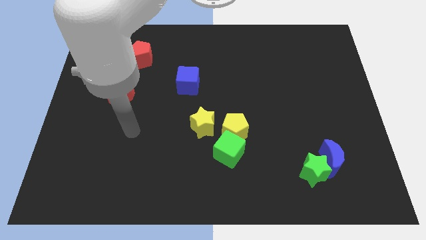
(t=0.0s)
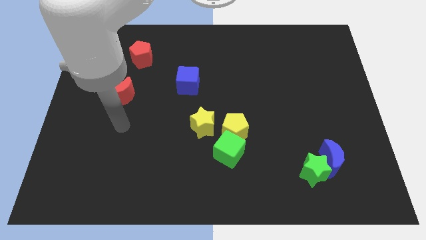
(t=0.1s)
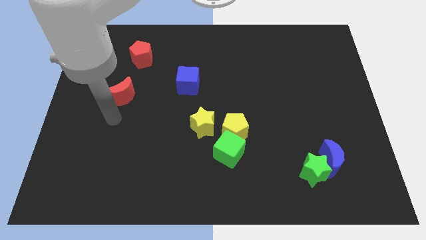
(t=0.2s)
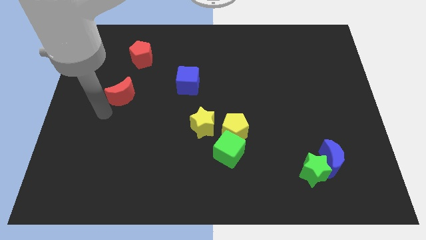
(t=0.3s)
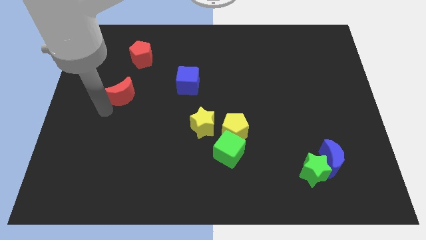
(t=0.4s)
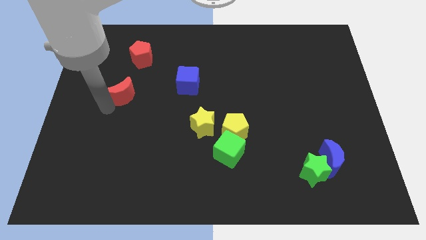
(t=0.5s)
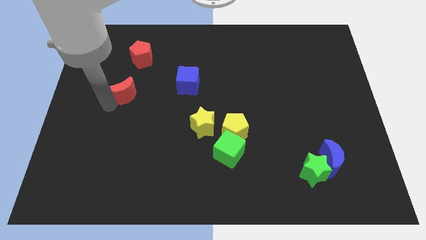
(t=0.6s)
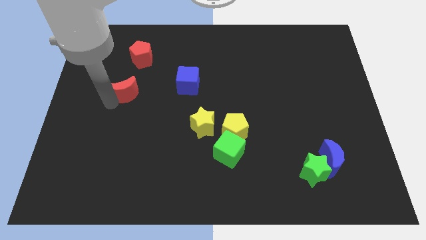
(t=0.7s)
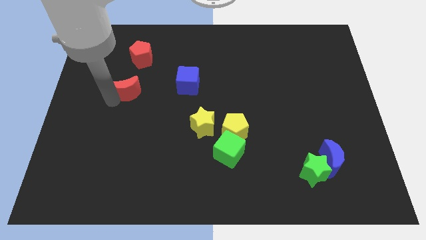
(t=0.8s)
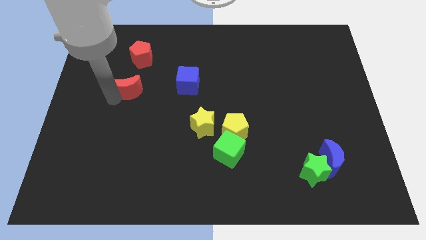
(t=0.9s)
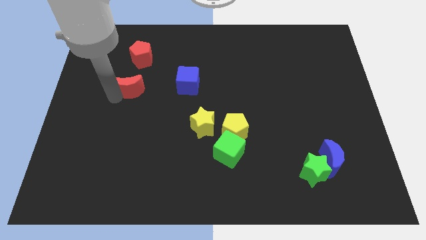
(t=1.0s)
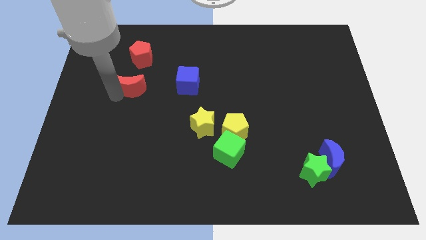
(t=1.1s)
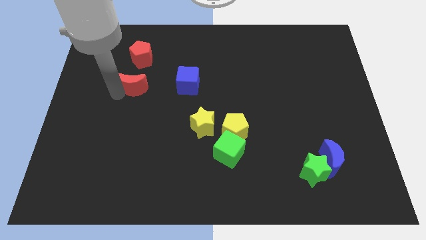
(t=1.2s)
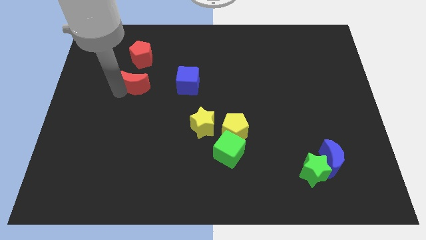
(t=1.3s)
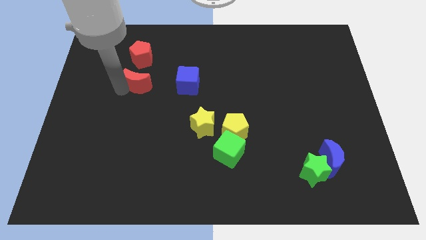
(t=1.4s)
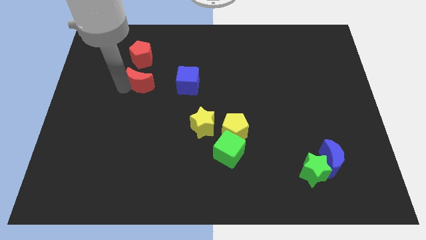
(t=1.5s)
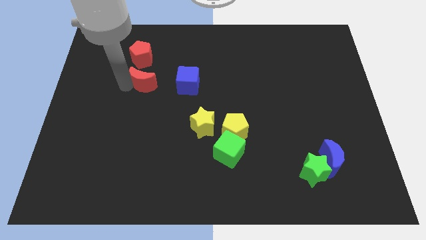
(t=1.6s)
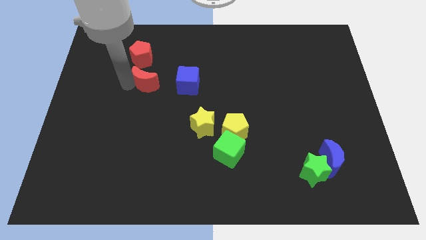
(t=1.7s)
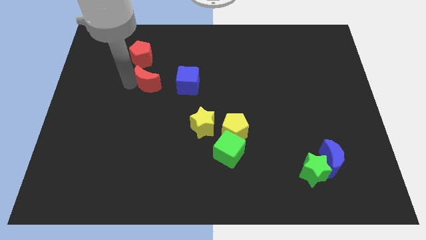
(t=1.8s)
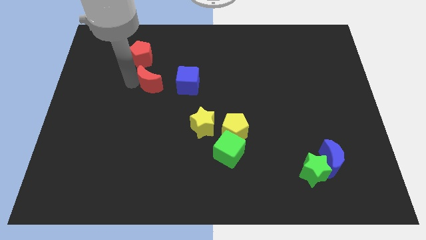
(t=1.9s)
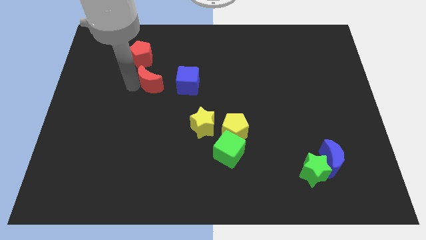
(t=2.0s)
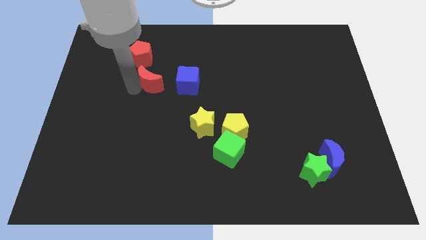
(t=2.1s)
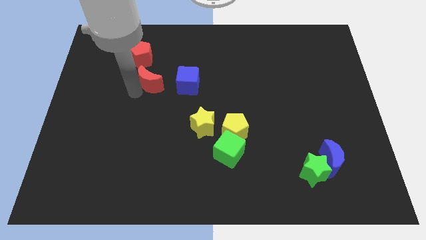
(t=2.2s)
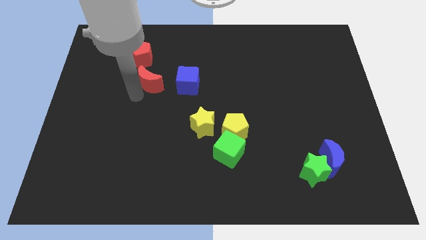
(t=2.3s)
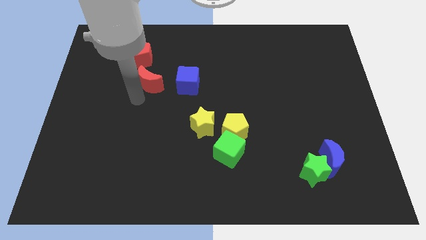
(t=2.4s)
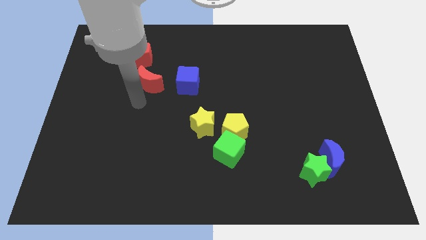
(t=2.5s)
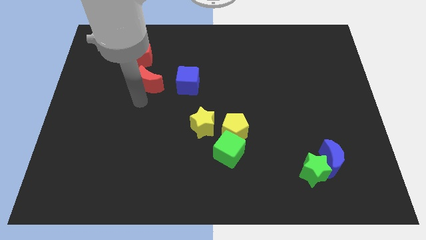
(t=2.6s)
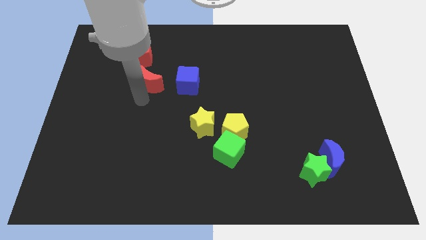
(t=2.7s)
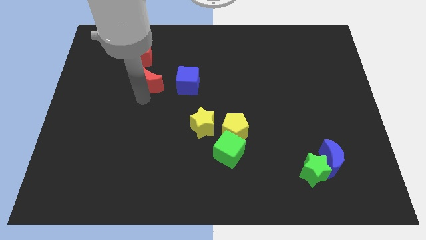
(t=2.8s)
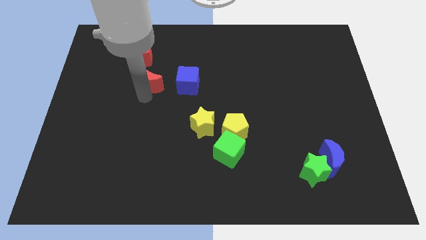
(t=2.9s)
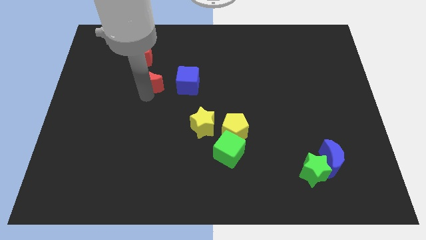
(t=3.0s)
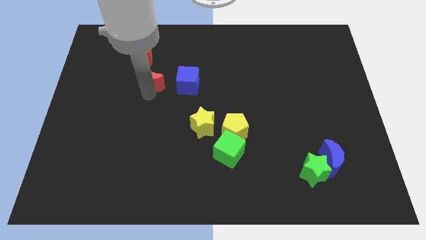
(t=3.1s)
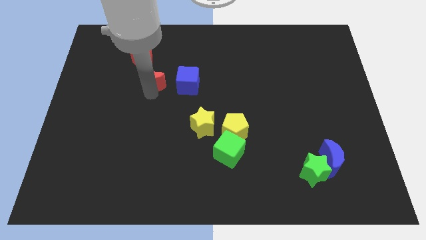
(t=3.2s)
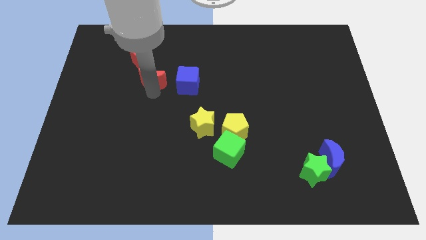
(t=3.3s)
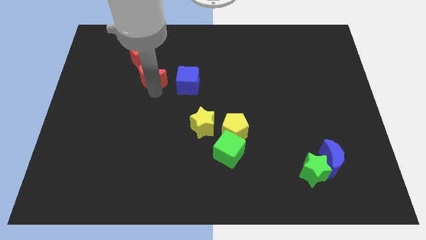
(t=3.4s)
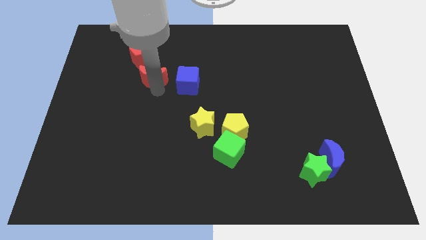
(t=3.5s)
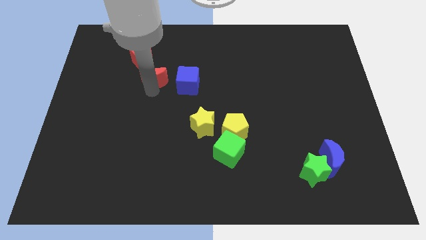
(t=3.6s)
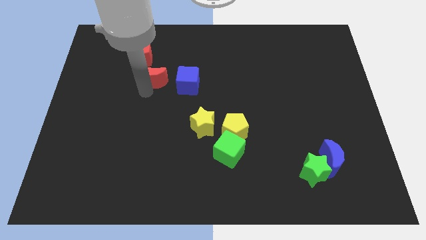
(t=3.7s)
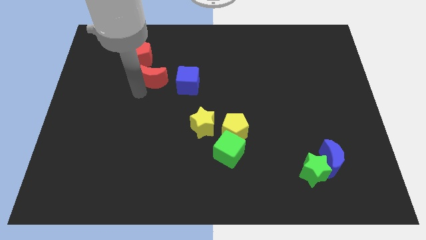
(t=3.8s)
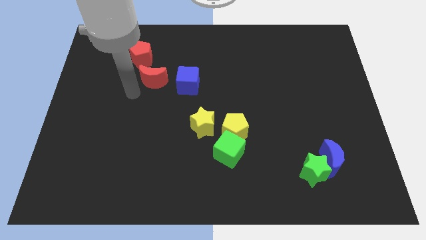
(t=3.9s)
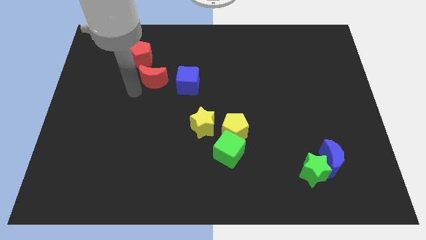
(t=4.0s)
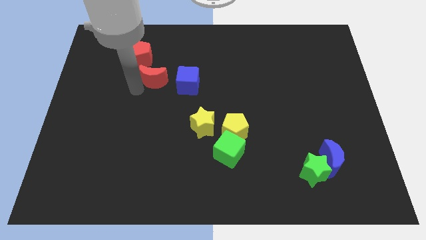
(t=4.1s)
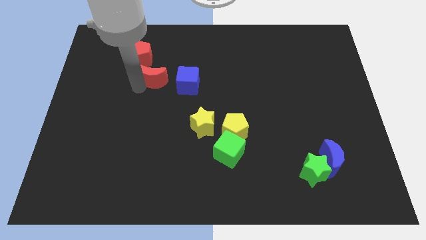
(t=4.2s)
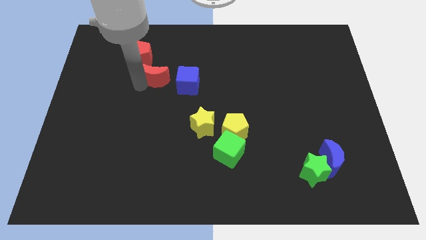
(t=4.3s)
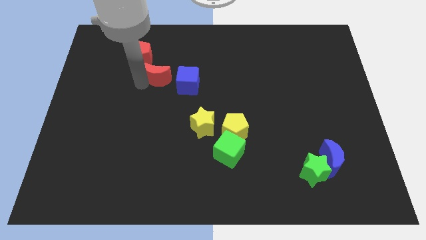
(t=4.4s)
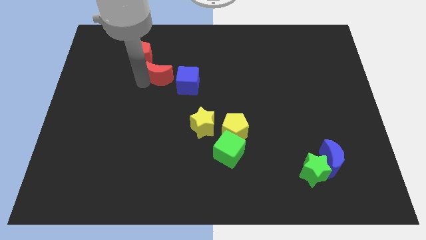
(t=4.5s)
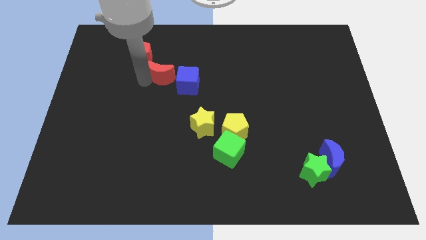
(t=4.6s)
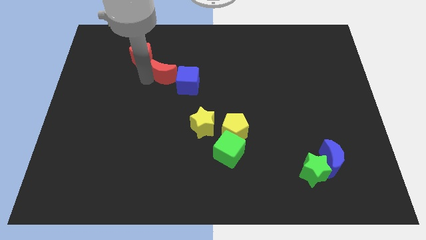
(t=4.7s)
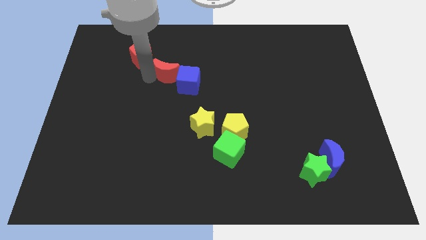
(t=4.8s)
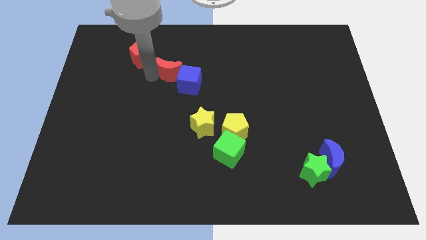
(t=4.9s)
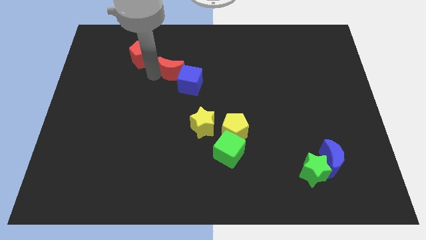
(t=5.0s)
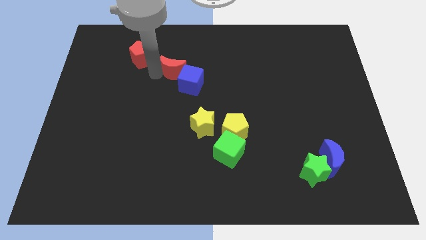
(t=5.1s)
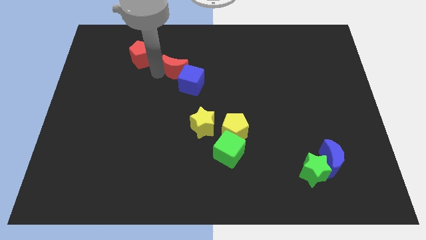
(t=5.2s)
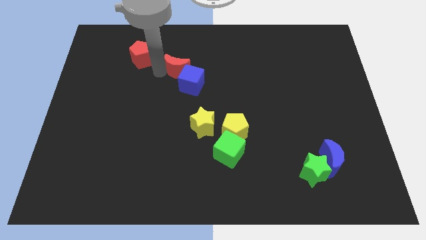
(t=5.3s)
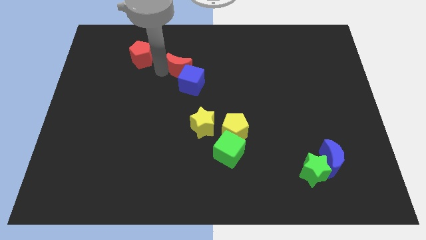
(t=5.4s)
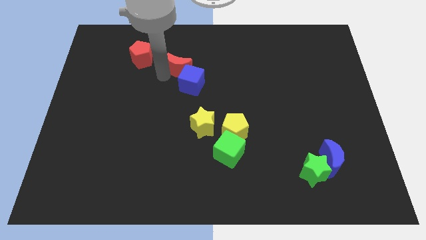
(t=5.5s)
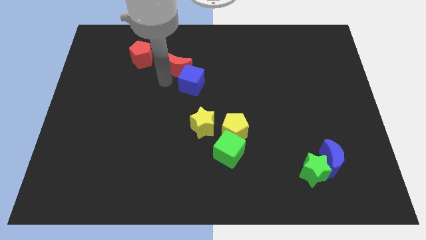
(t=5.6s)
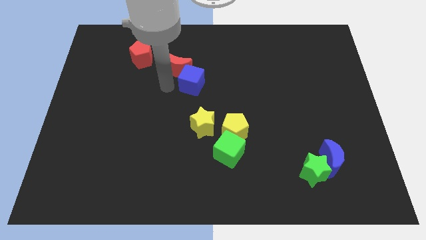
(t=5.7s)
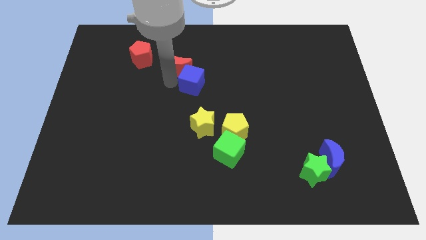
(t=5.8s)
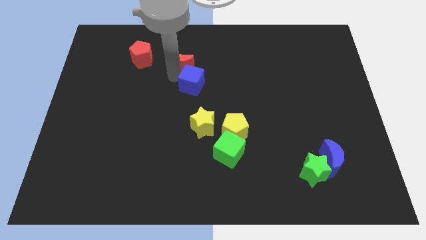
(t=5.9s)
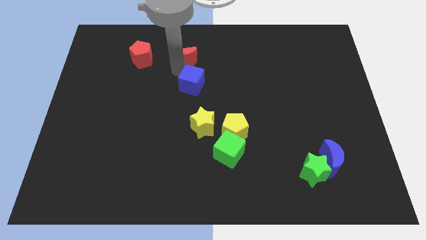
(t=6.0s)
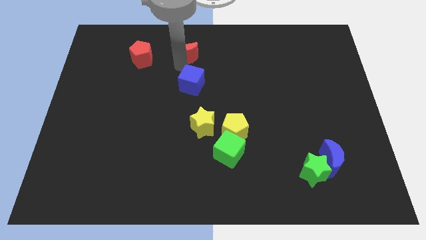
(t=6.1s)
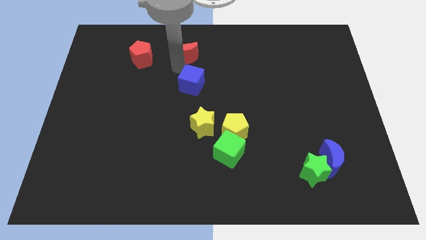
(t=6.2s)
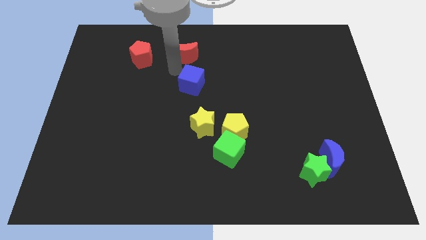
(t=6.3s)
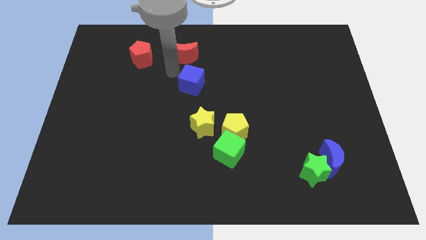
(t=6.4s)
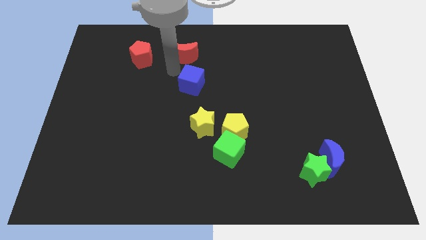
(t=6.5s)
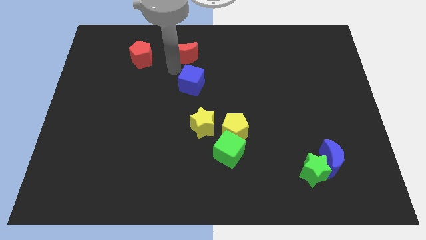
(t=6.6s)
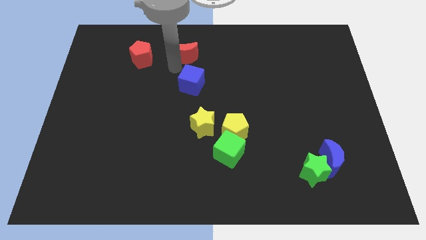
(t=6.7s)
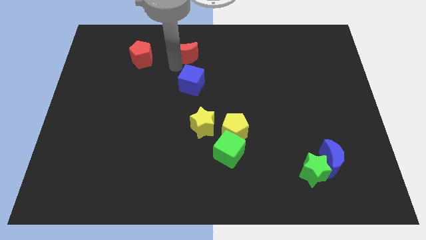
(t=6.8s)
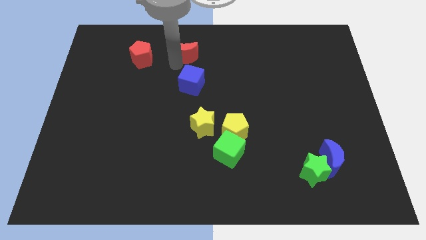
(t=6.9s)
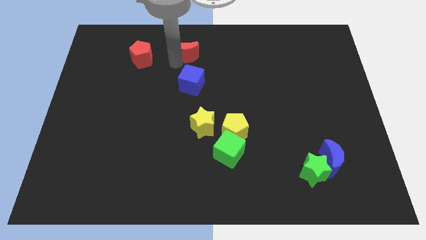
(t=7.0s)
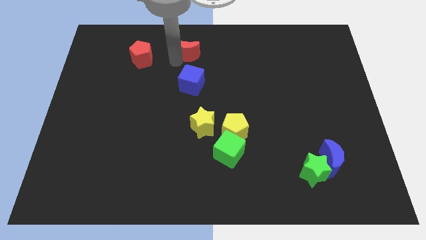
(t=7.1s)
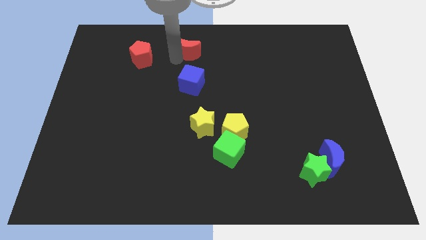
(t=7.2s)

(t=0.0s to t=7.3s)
push the red moon to the top
